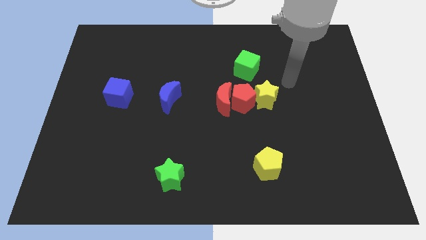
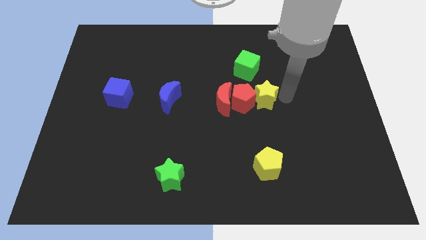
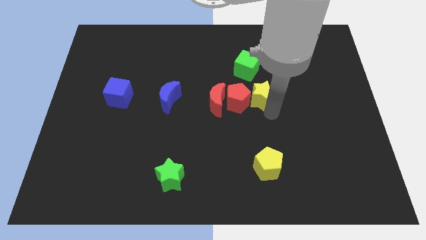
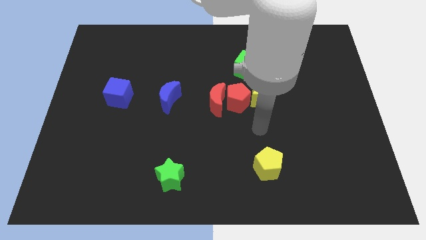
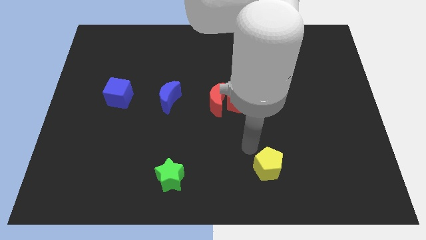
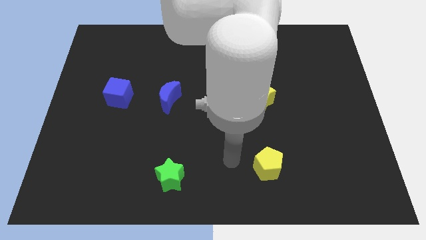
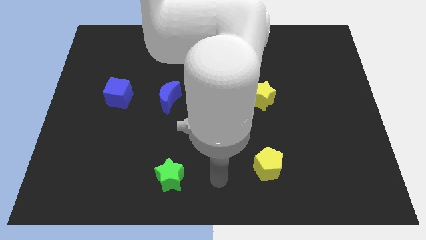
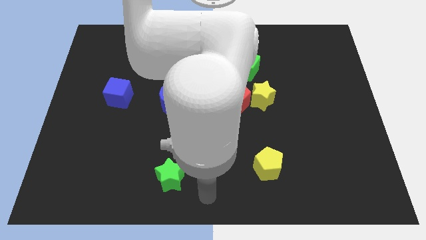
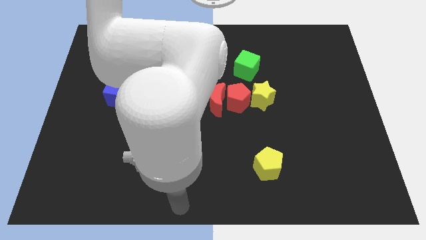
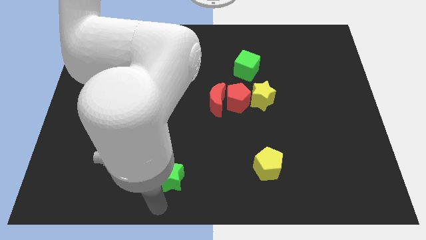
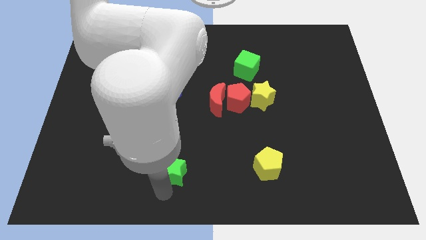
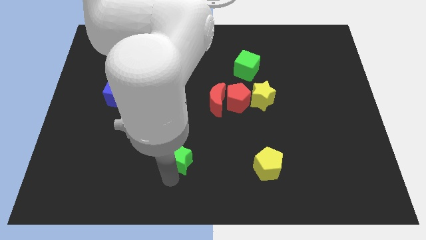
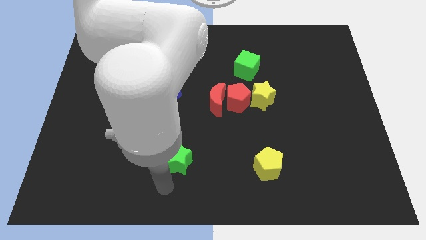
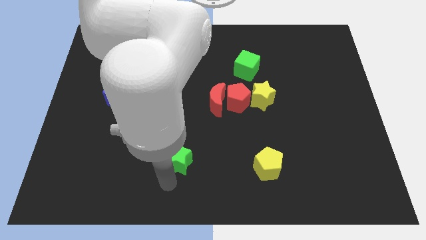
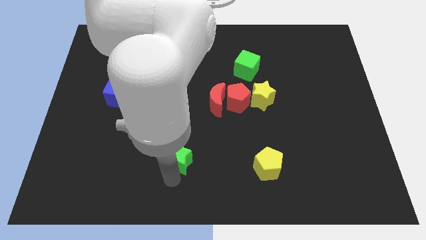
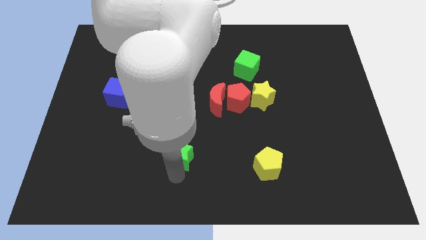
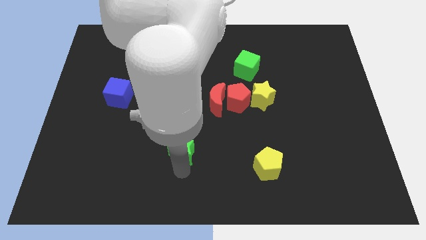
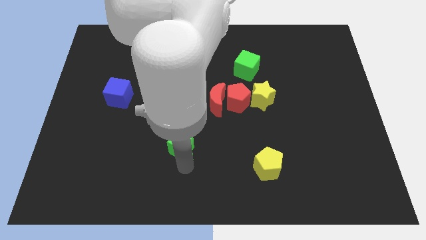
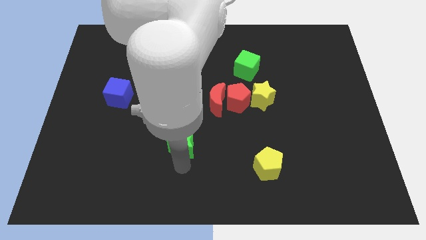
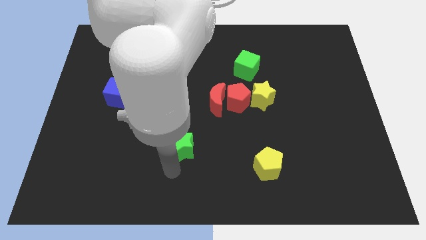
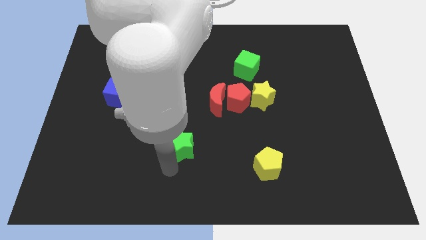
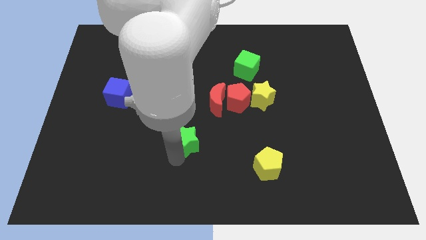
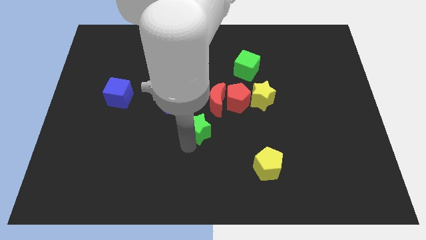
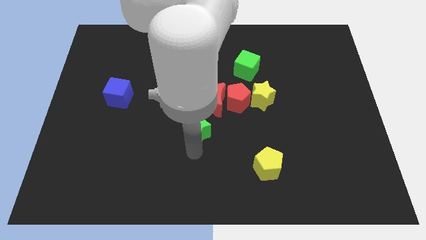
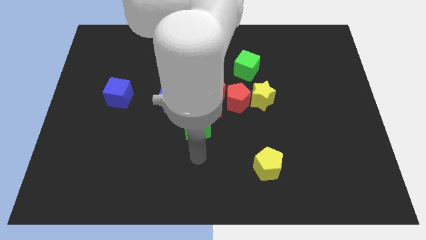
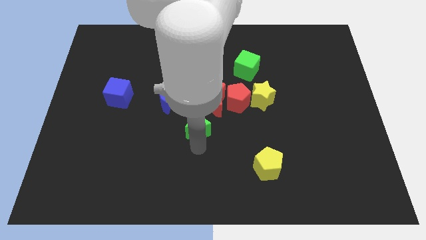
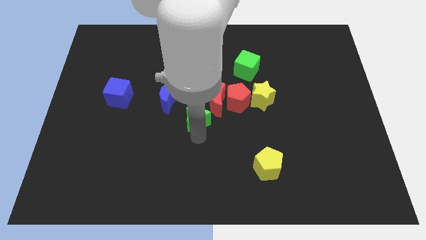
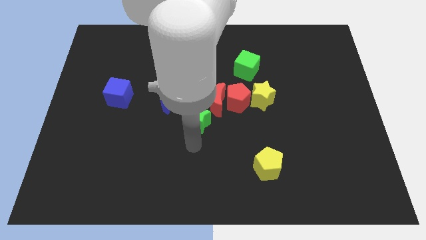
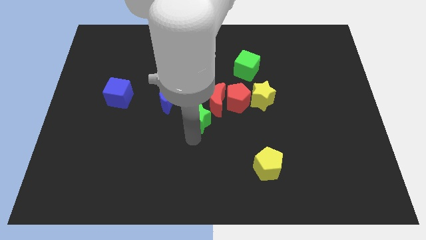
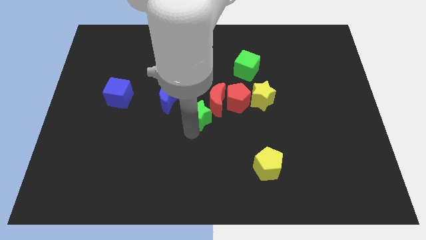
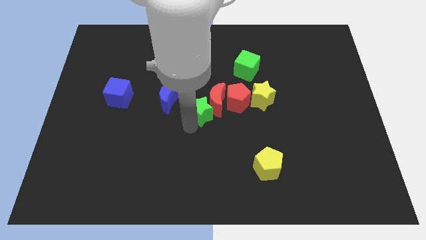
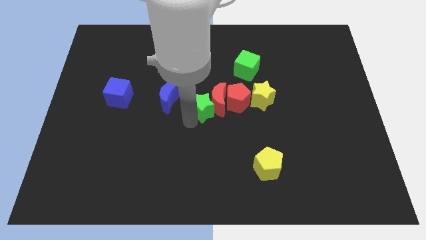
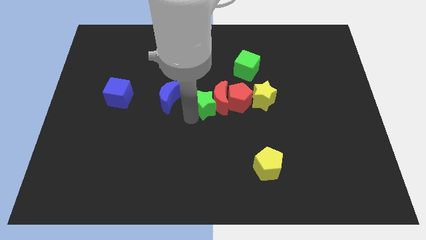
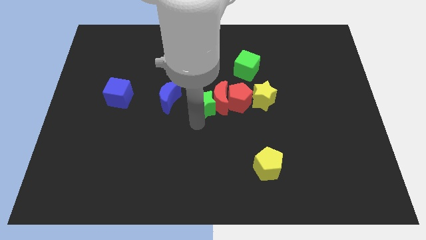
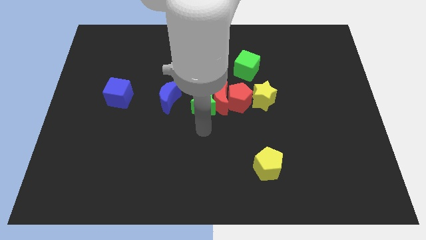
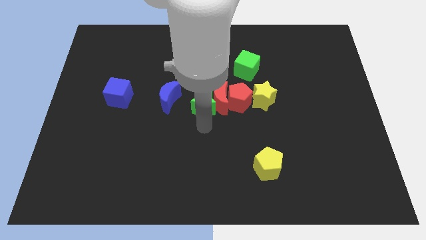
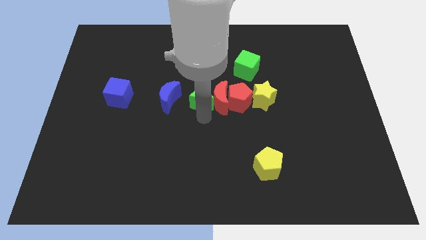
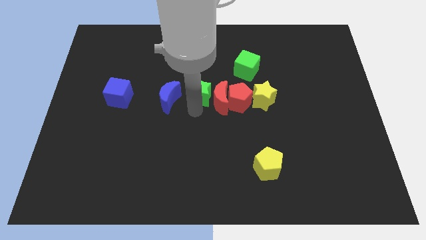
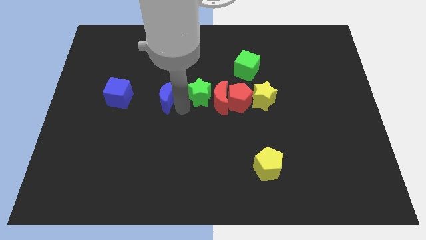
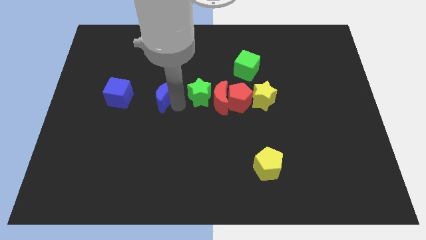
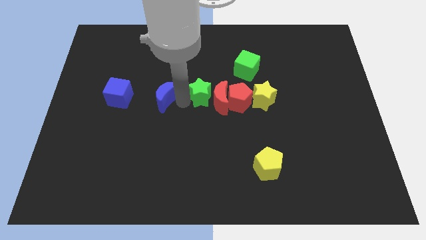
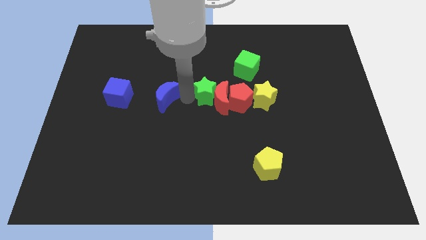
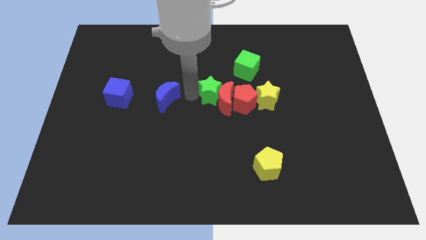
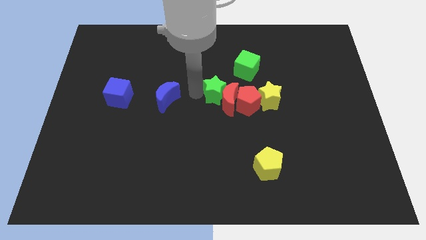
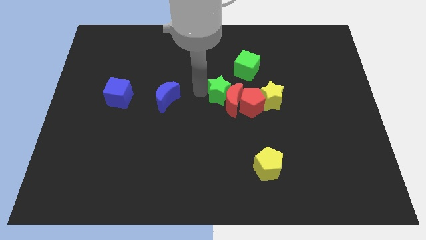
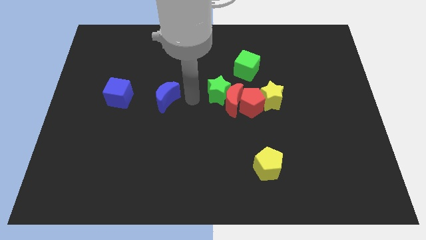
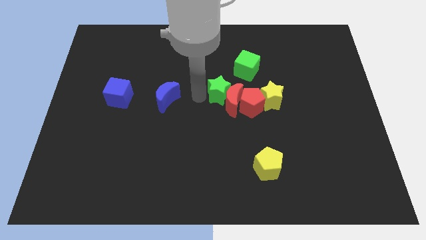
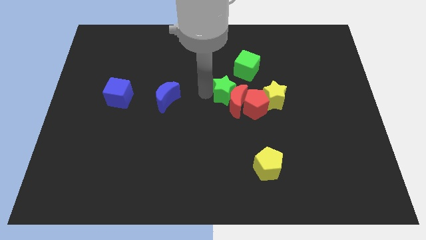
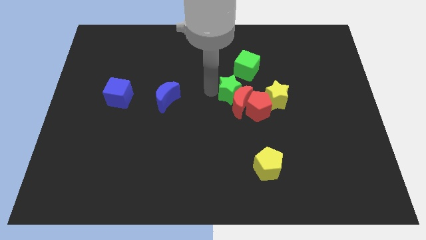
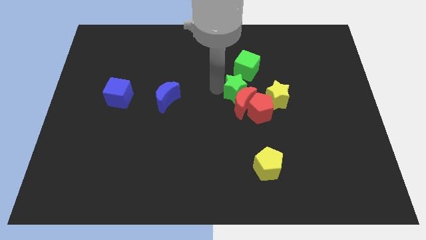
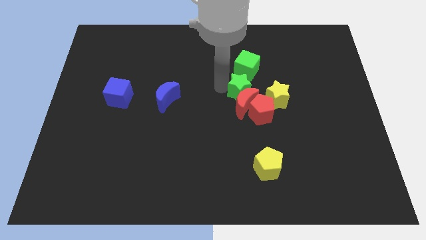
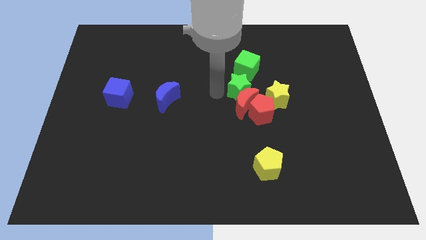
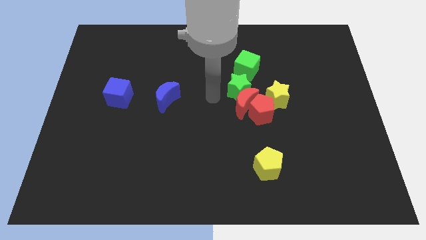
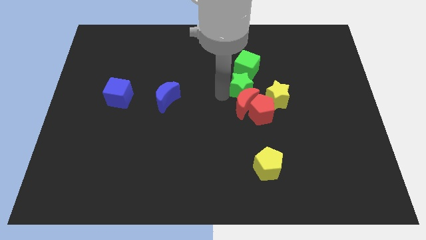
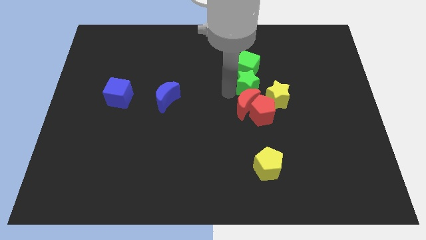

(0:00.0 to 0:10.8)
slide the green star to the bottom right of the green cube

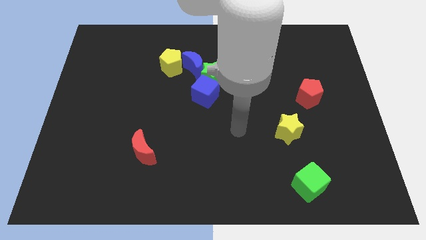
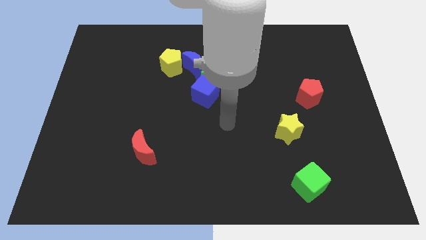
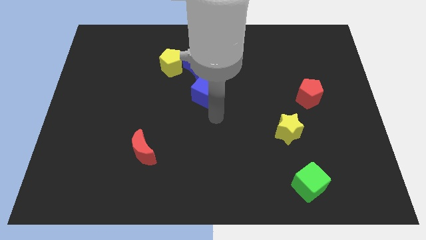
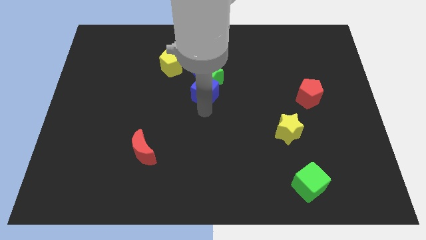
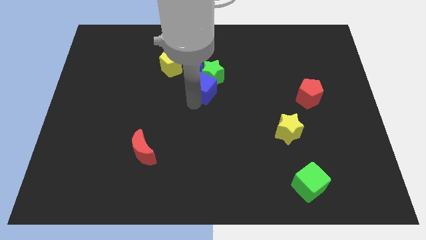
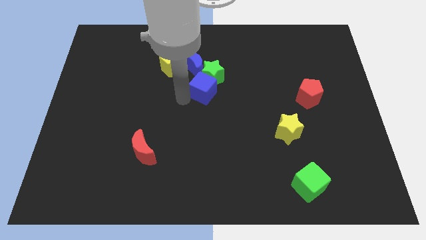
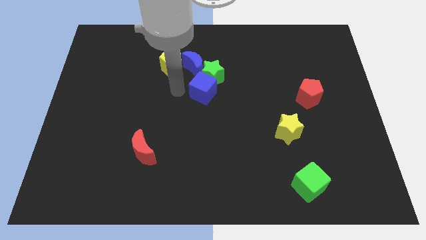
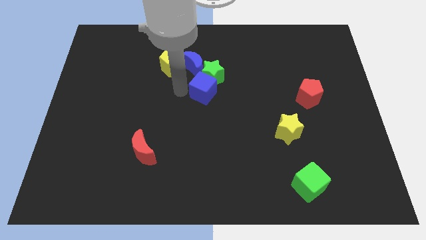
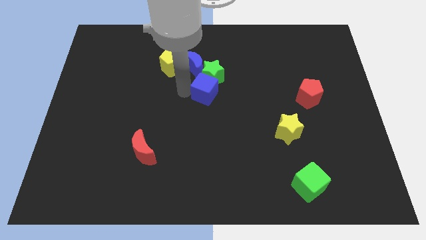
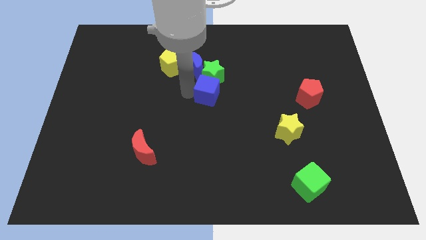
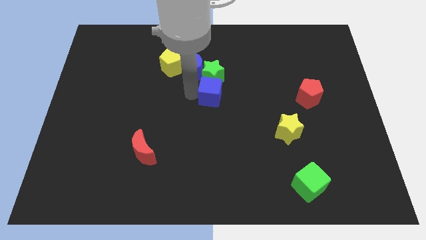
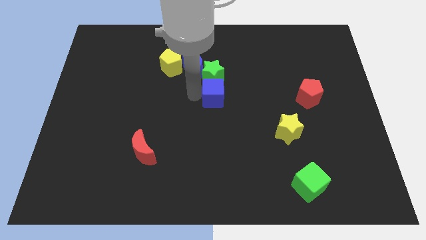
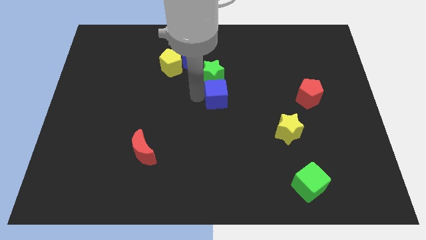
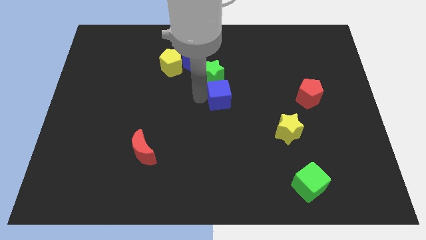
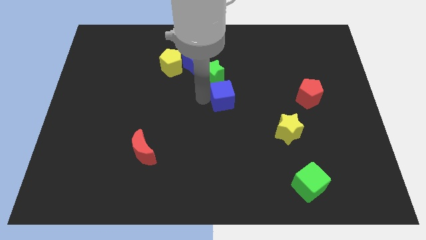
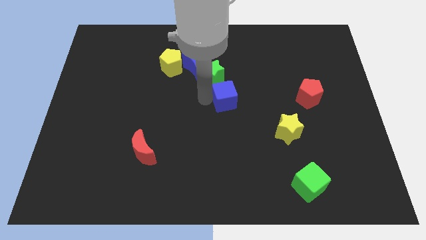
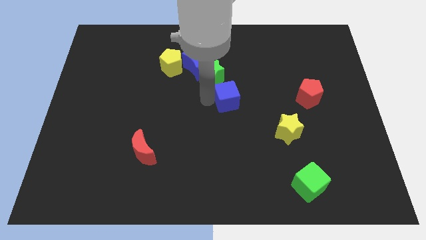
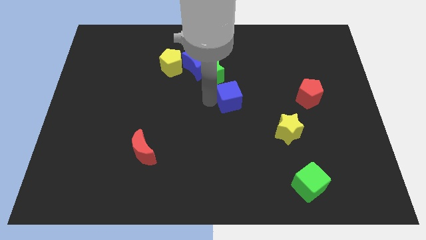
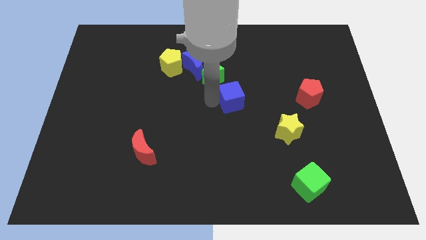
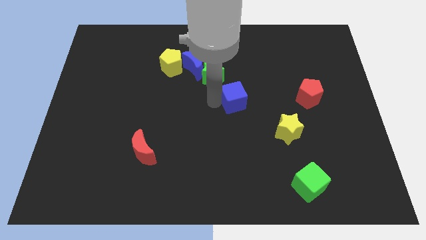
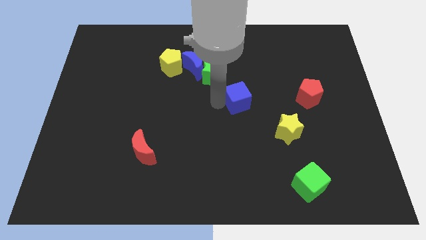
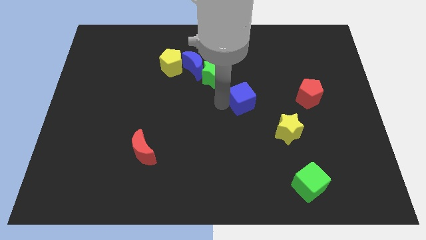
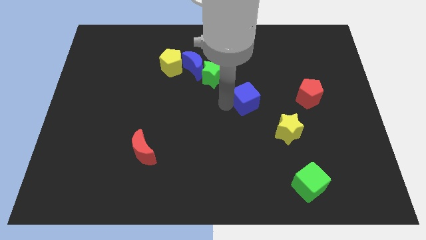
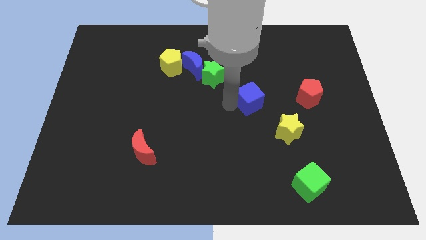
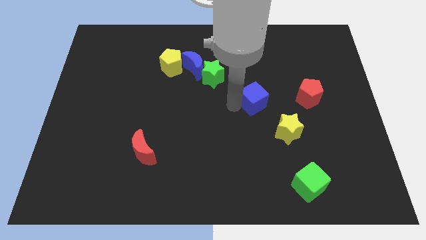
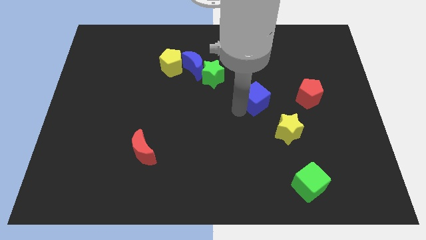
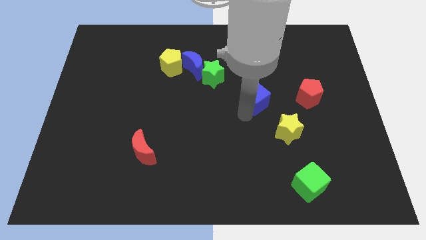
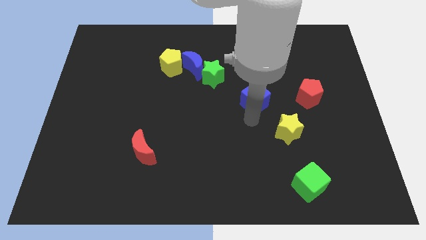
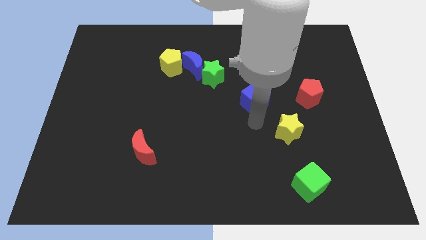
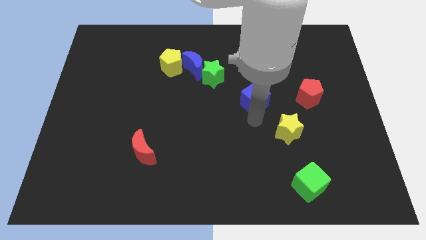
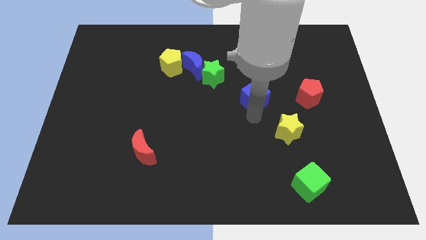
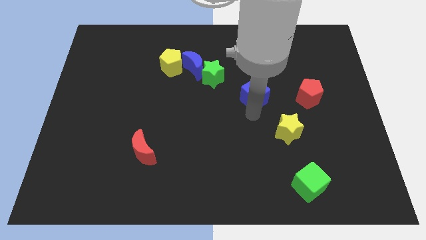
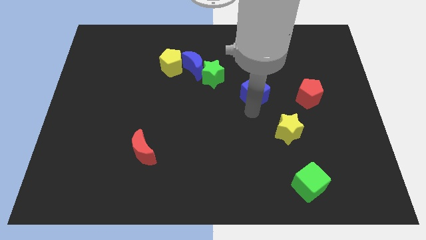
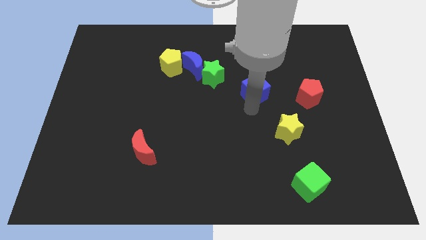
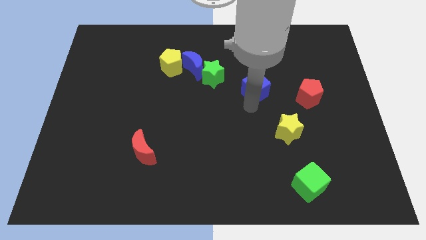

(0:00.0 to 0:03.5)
put the blue cube to the right side of the green star
